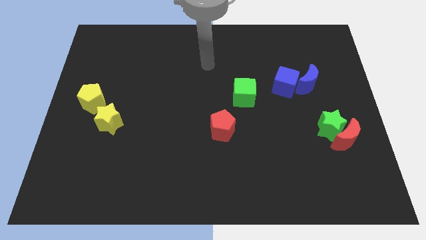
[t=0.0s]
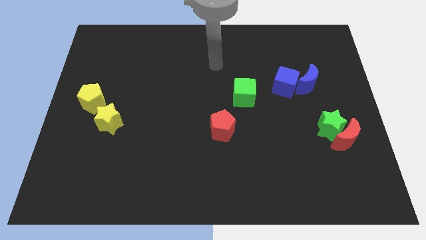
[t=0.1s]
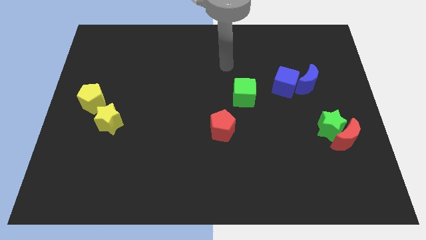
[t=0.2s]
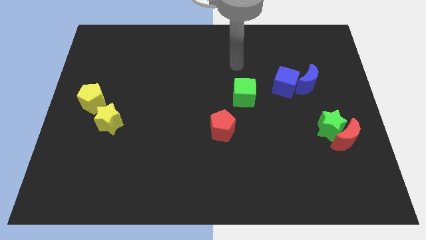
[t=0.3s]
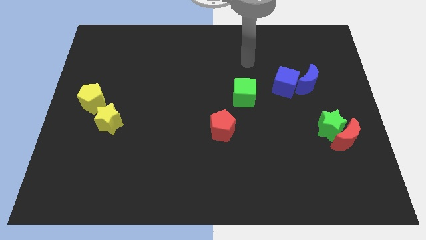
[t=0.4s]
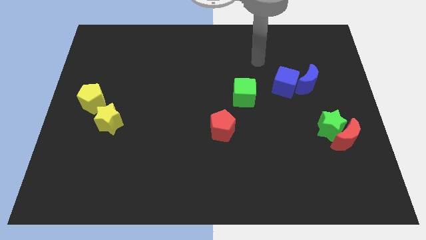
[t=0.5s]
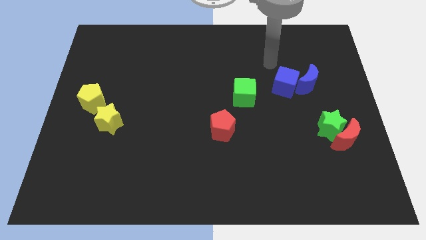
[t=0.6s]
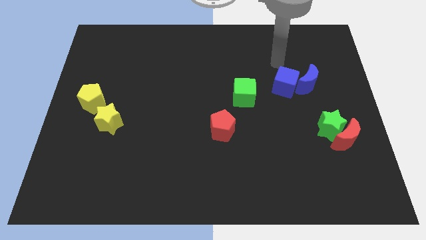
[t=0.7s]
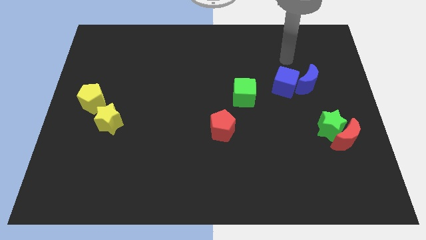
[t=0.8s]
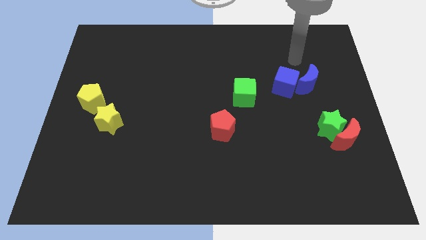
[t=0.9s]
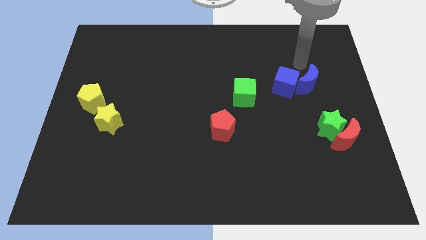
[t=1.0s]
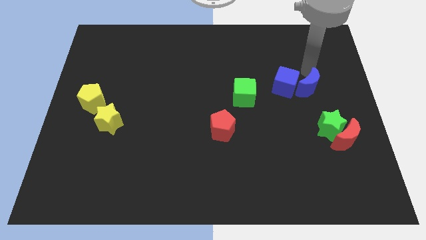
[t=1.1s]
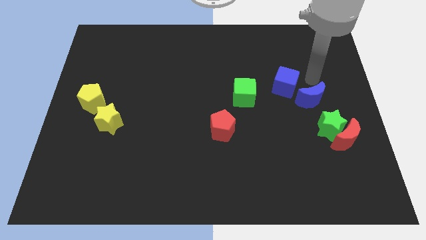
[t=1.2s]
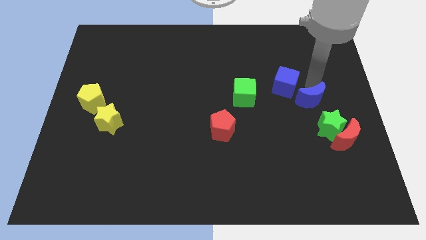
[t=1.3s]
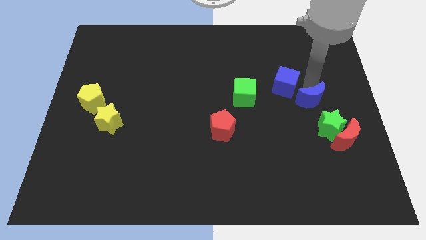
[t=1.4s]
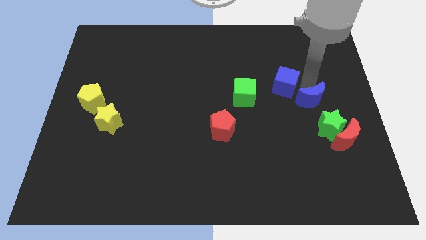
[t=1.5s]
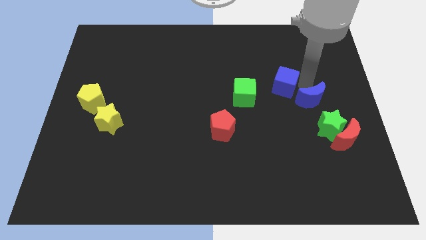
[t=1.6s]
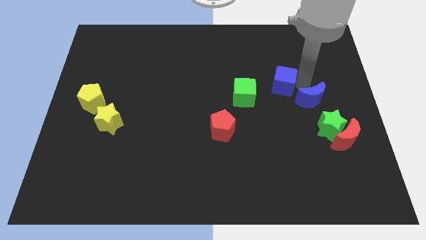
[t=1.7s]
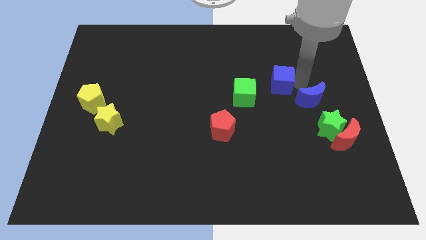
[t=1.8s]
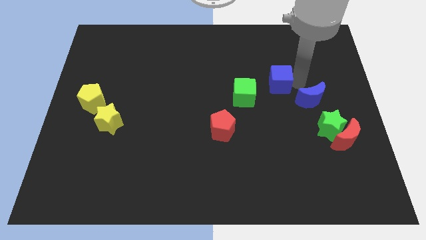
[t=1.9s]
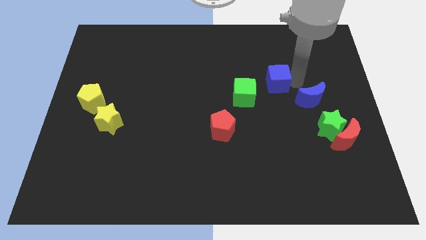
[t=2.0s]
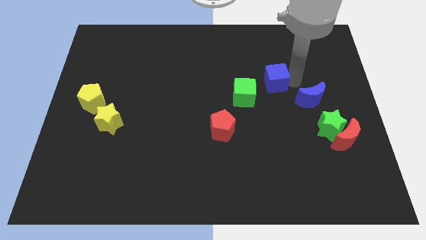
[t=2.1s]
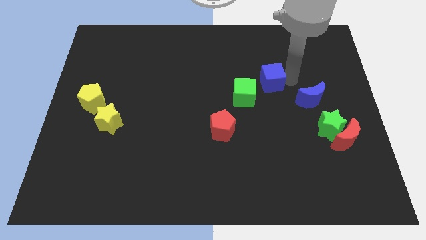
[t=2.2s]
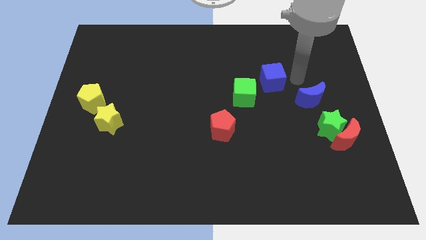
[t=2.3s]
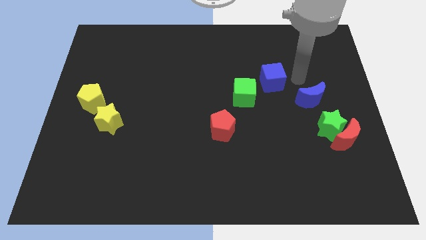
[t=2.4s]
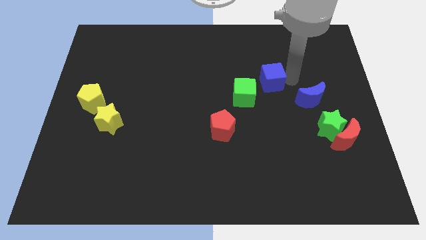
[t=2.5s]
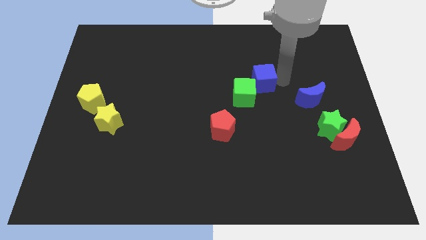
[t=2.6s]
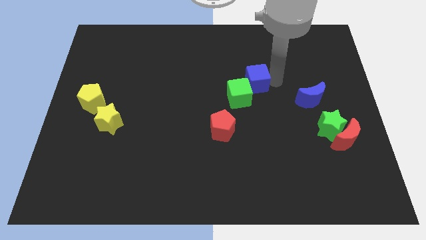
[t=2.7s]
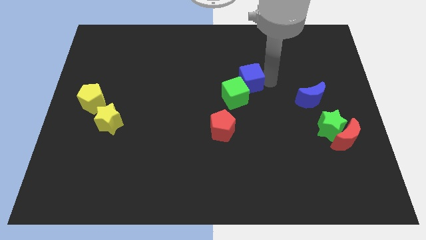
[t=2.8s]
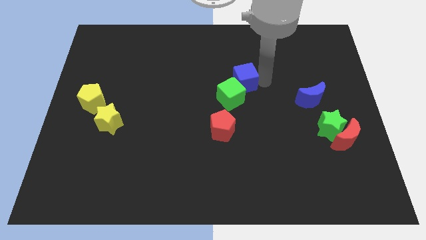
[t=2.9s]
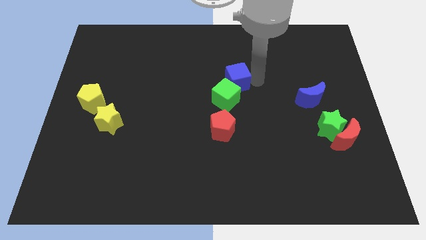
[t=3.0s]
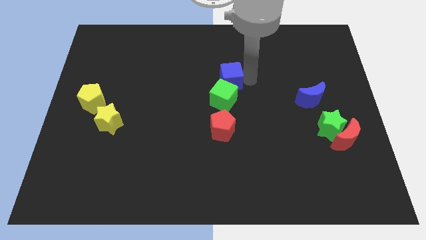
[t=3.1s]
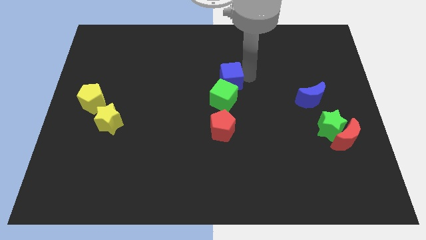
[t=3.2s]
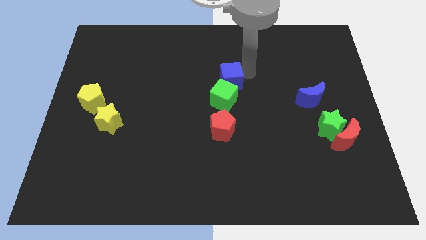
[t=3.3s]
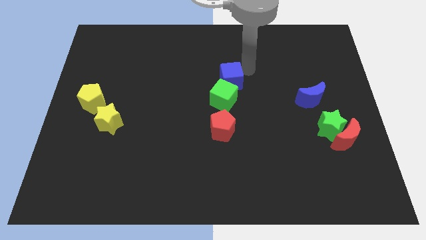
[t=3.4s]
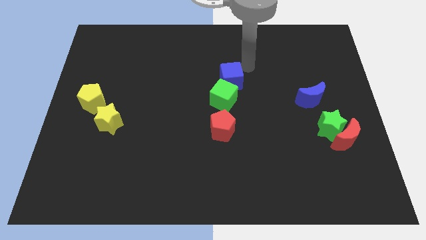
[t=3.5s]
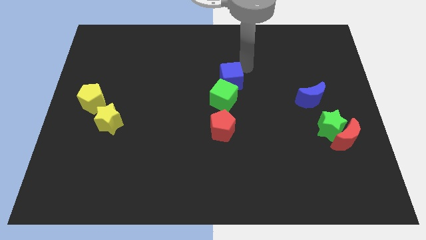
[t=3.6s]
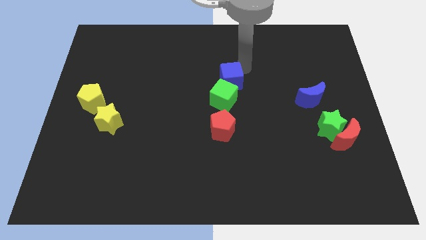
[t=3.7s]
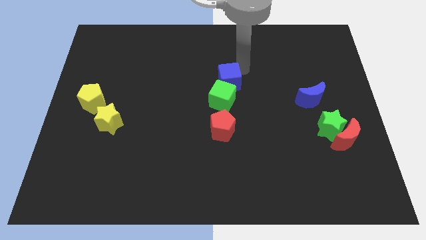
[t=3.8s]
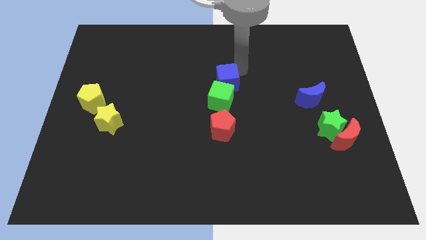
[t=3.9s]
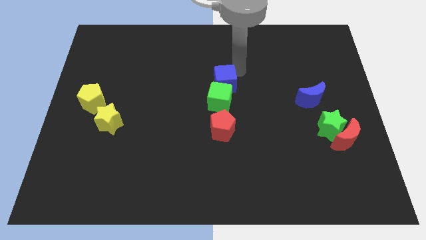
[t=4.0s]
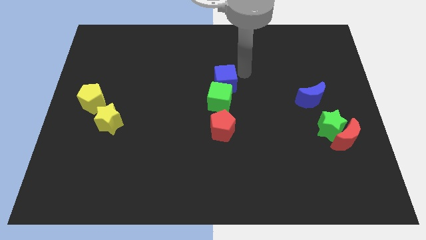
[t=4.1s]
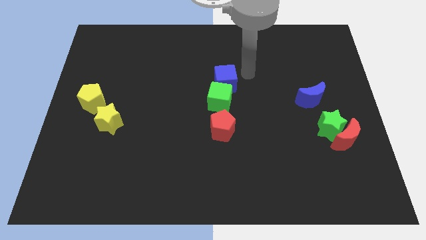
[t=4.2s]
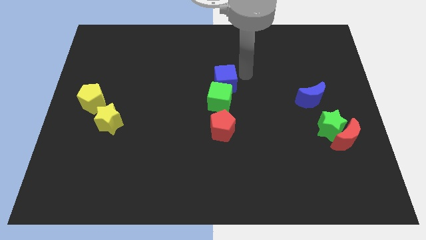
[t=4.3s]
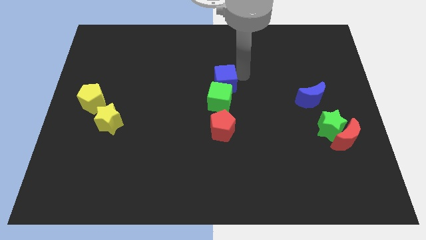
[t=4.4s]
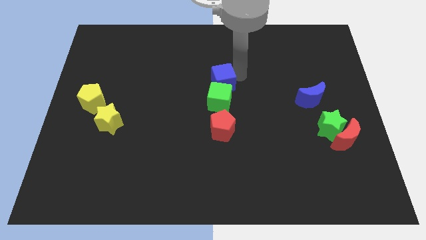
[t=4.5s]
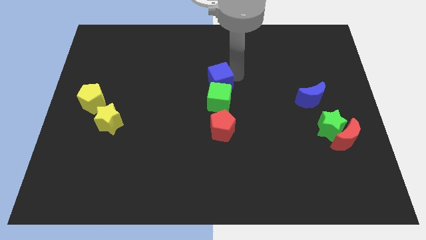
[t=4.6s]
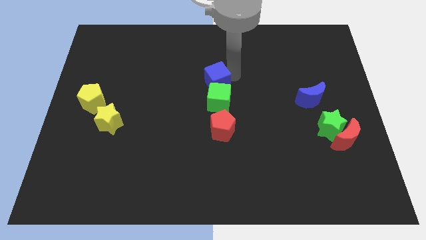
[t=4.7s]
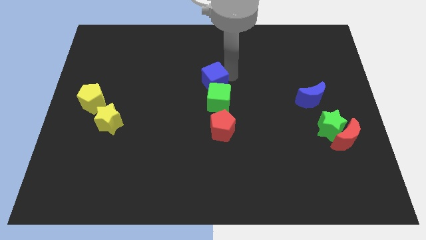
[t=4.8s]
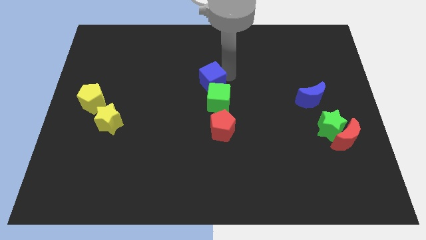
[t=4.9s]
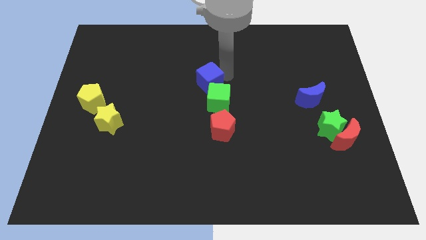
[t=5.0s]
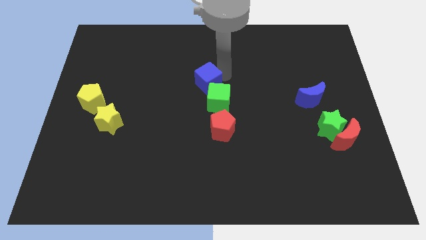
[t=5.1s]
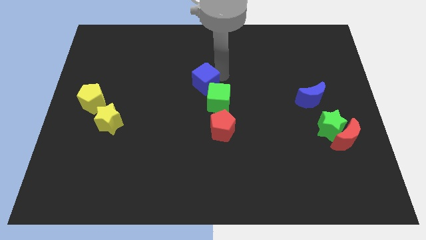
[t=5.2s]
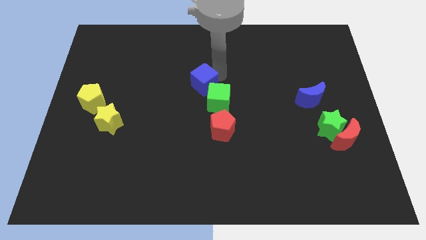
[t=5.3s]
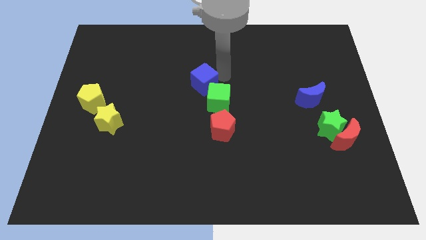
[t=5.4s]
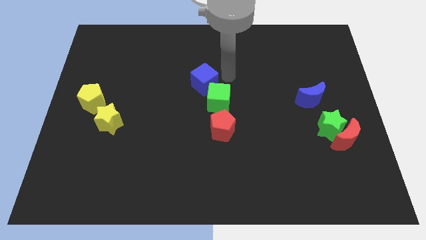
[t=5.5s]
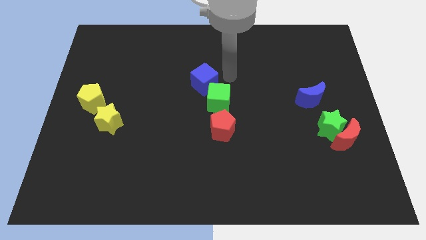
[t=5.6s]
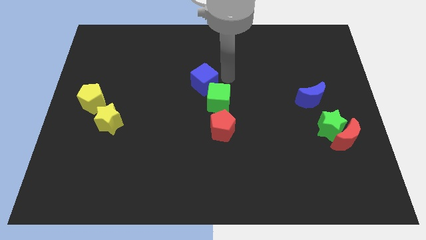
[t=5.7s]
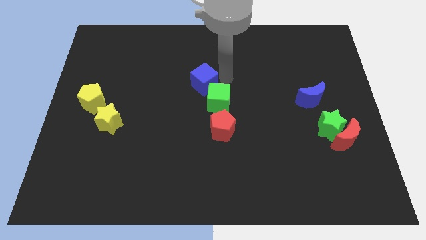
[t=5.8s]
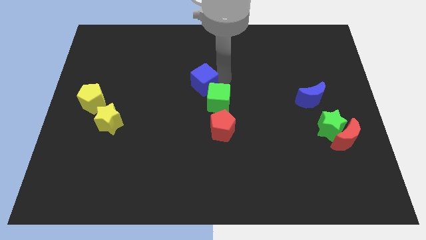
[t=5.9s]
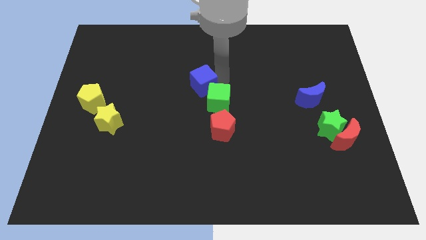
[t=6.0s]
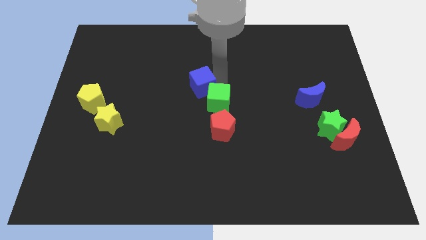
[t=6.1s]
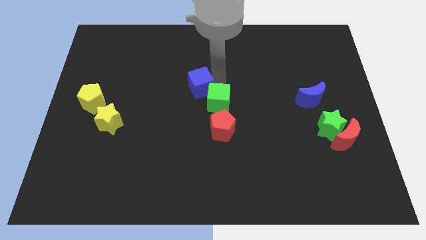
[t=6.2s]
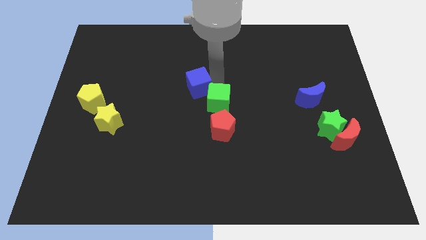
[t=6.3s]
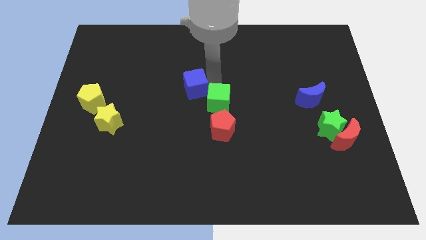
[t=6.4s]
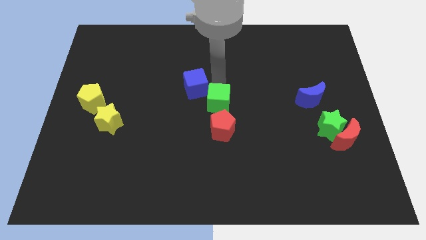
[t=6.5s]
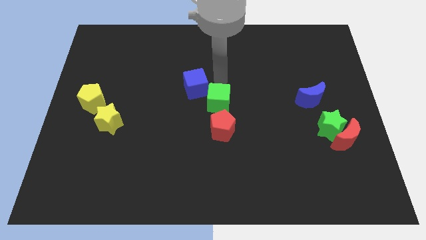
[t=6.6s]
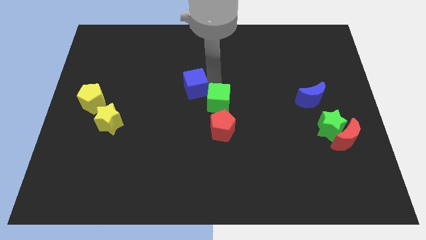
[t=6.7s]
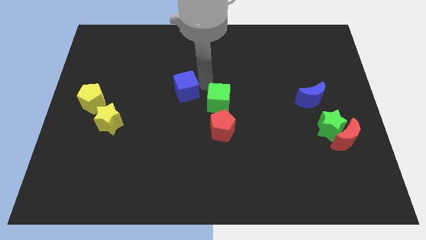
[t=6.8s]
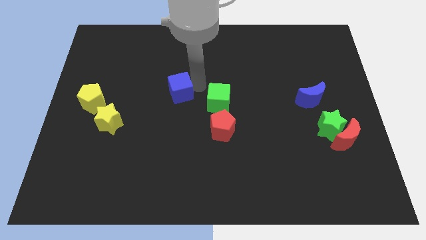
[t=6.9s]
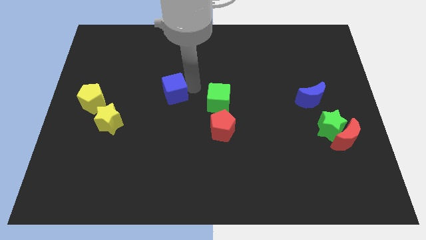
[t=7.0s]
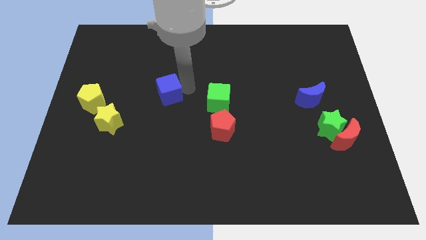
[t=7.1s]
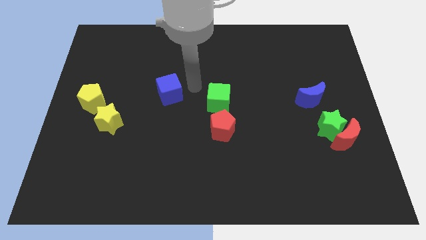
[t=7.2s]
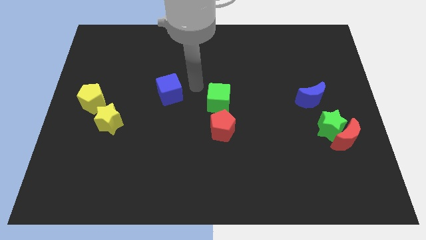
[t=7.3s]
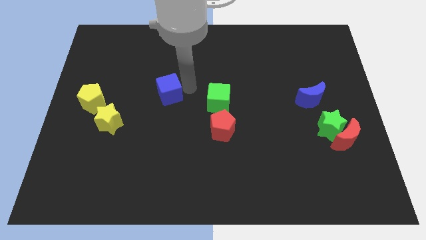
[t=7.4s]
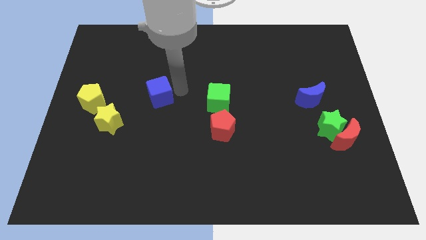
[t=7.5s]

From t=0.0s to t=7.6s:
move the blue cube just right of the yellow pentagon
